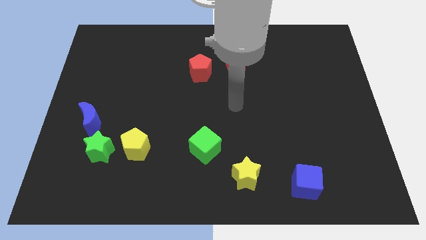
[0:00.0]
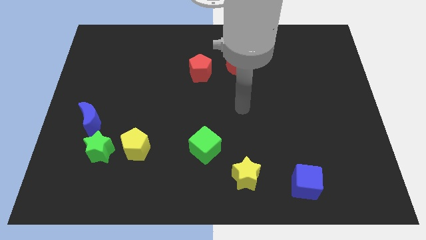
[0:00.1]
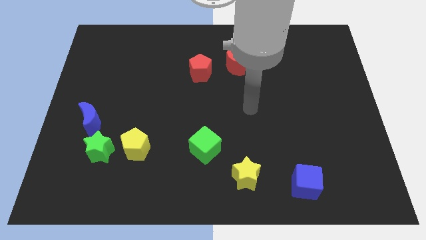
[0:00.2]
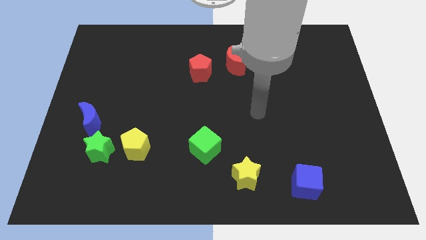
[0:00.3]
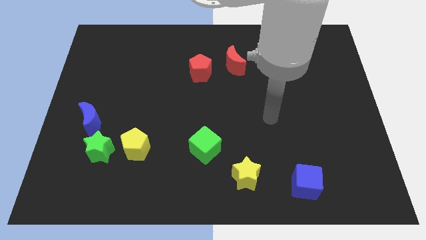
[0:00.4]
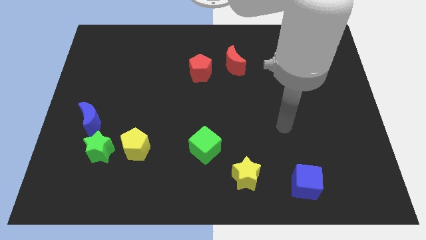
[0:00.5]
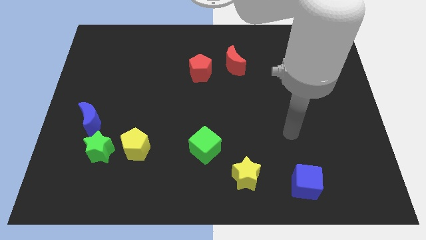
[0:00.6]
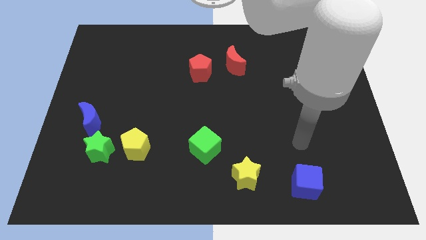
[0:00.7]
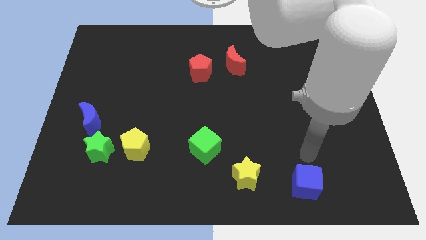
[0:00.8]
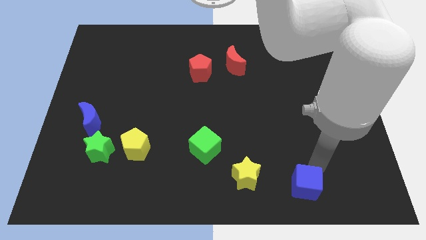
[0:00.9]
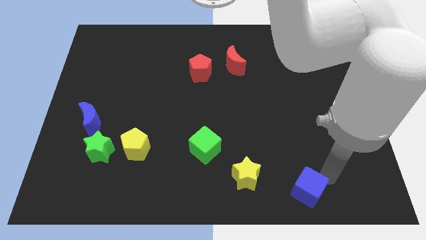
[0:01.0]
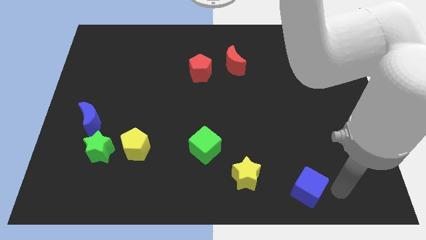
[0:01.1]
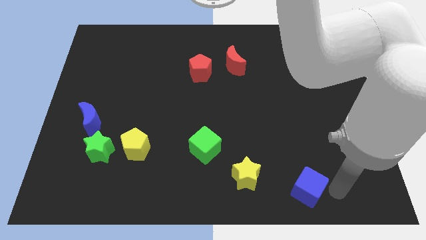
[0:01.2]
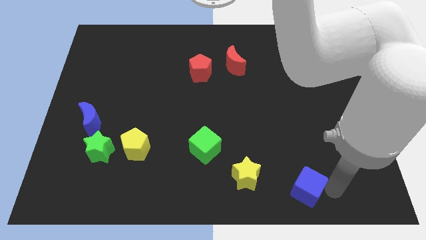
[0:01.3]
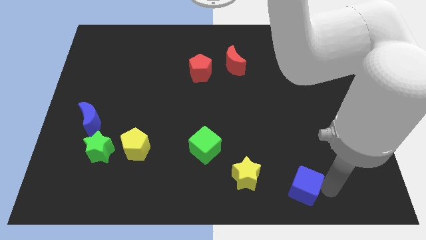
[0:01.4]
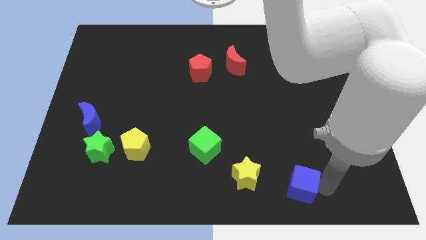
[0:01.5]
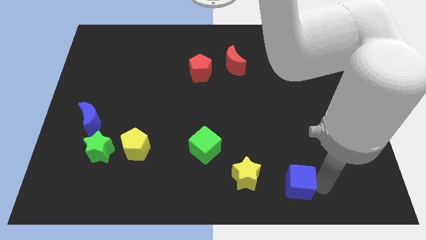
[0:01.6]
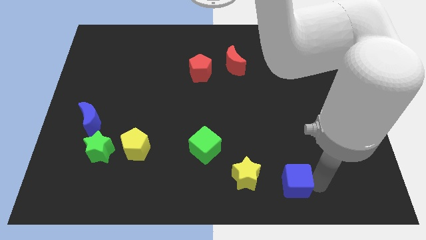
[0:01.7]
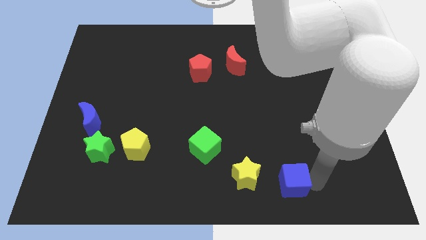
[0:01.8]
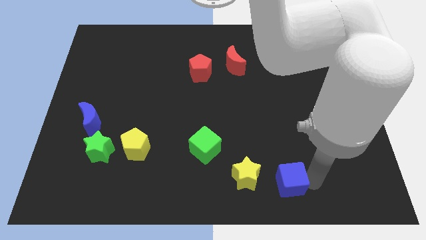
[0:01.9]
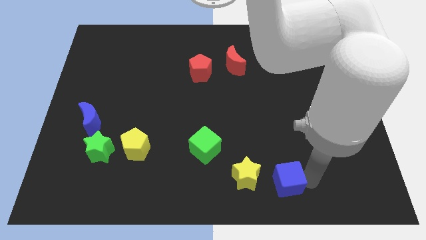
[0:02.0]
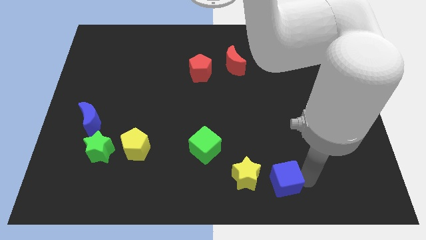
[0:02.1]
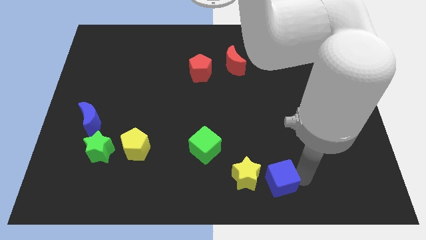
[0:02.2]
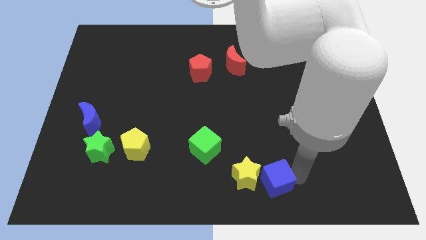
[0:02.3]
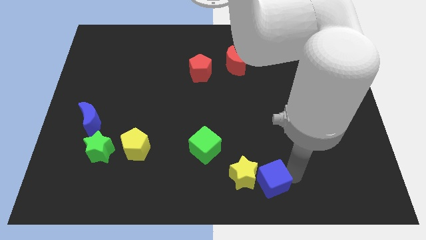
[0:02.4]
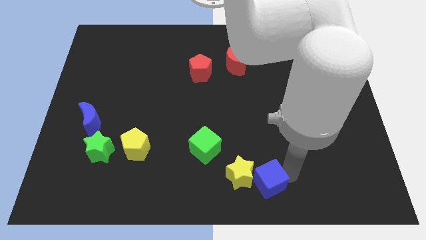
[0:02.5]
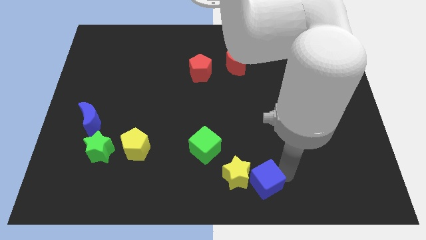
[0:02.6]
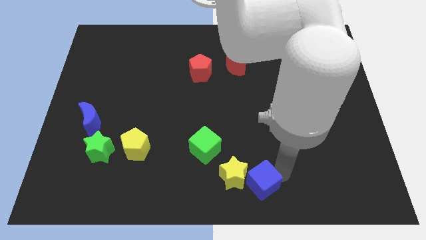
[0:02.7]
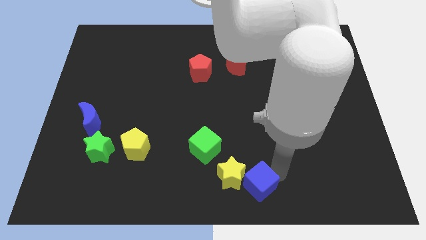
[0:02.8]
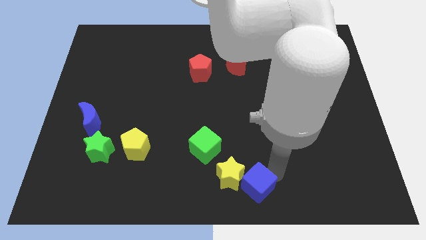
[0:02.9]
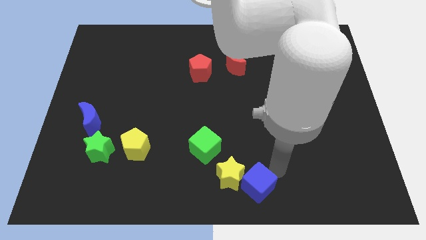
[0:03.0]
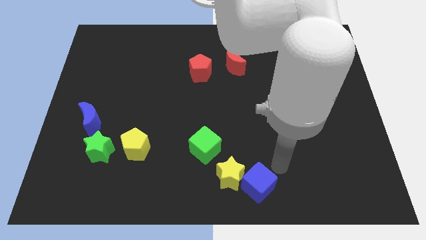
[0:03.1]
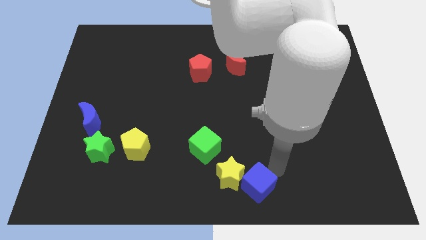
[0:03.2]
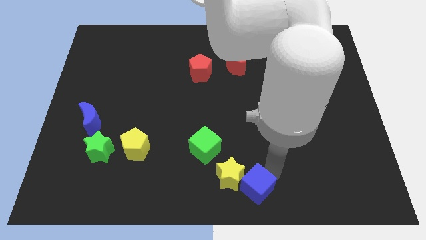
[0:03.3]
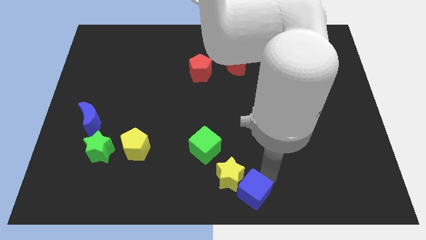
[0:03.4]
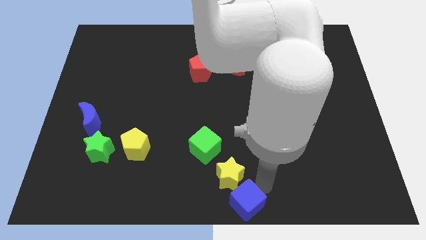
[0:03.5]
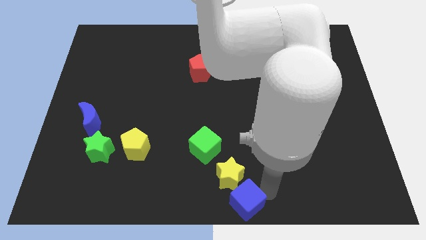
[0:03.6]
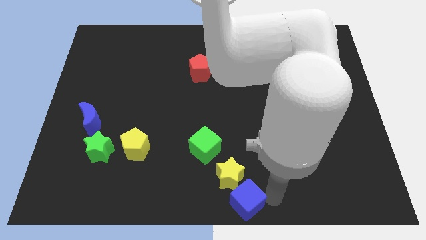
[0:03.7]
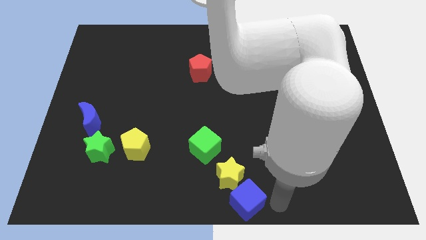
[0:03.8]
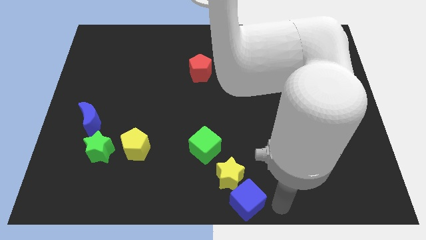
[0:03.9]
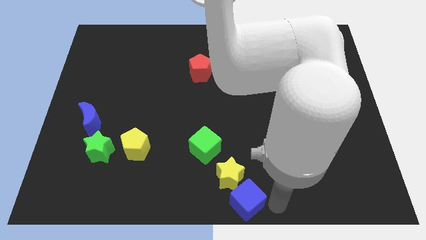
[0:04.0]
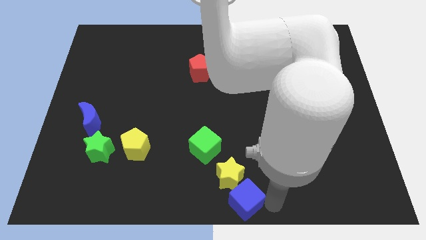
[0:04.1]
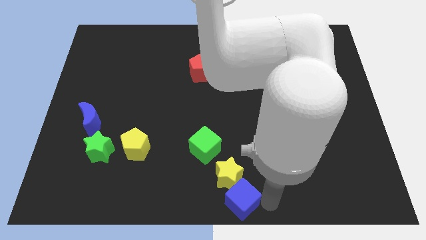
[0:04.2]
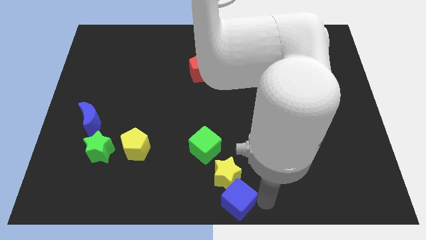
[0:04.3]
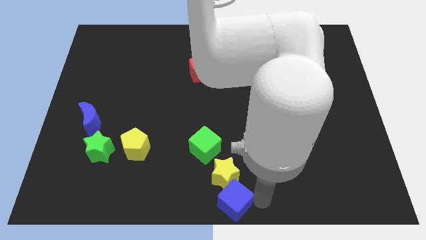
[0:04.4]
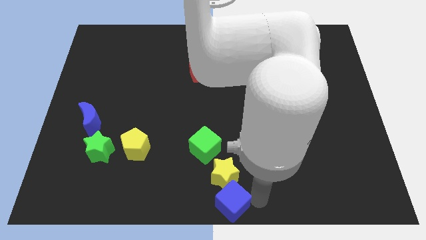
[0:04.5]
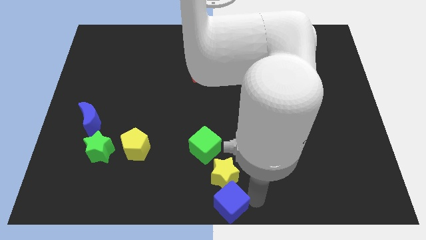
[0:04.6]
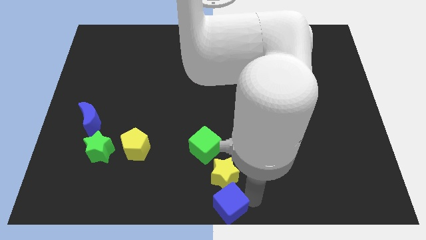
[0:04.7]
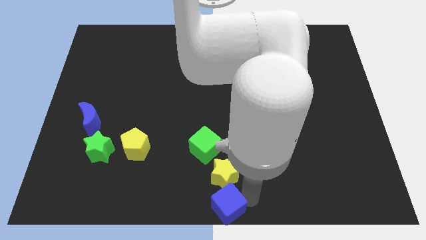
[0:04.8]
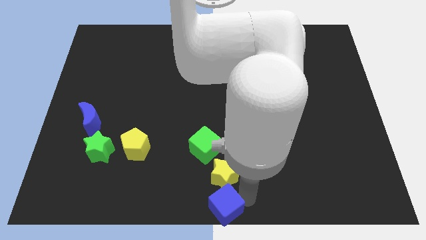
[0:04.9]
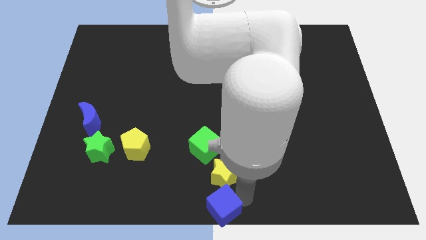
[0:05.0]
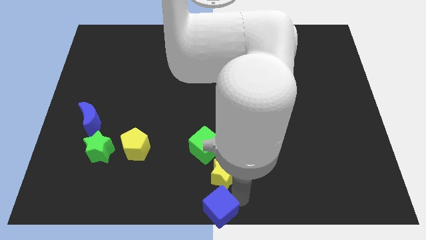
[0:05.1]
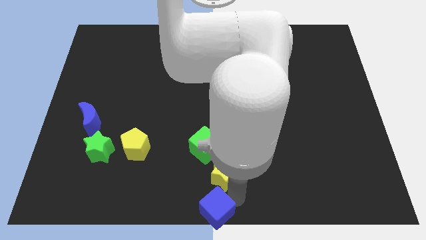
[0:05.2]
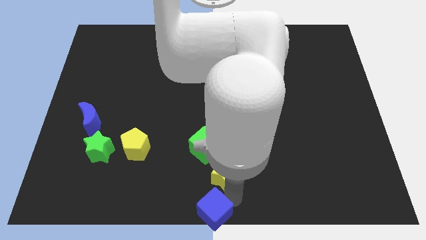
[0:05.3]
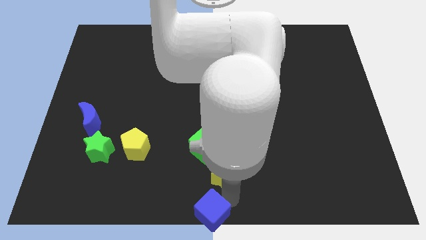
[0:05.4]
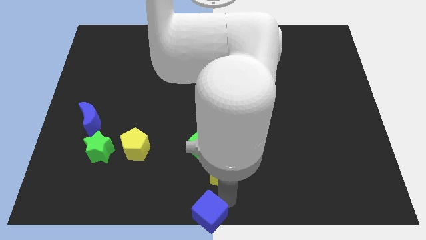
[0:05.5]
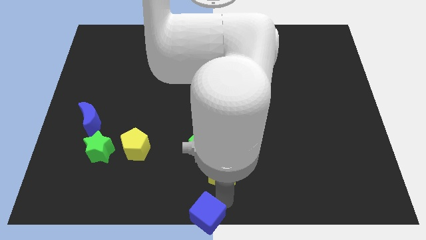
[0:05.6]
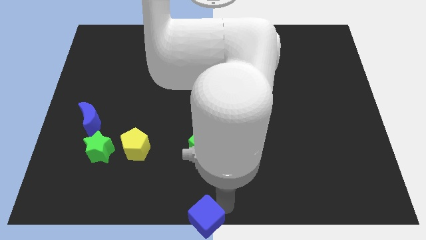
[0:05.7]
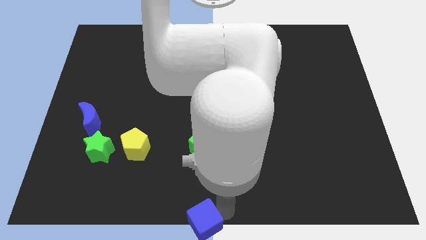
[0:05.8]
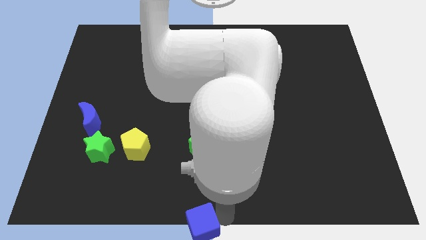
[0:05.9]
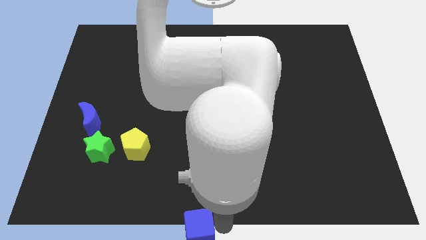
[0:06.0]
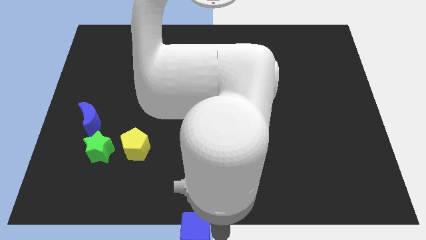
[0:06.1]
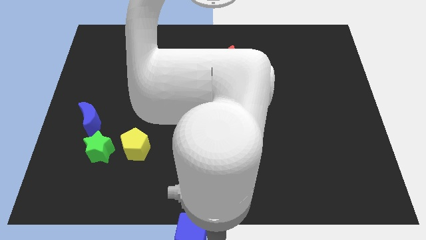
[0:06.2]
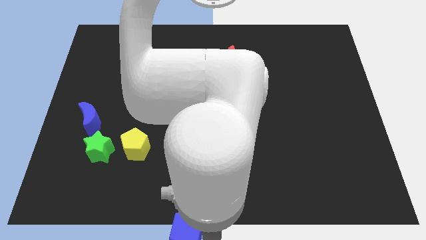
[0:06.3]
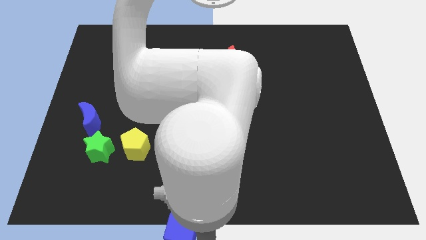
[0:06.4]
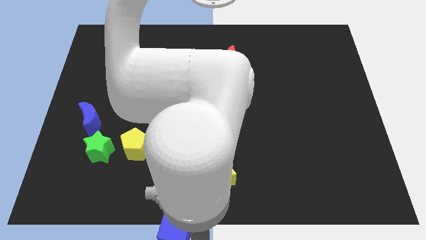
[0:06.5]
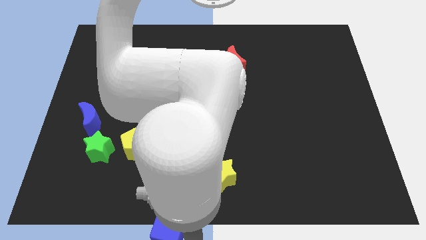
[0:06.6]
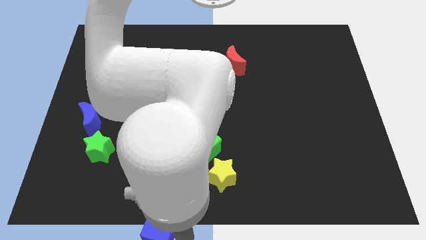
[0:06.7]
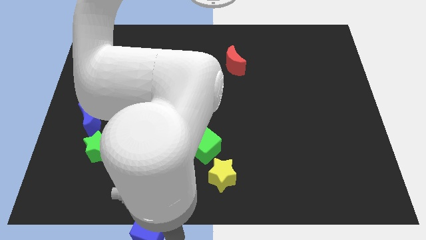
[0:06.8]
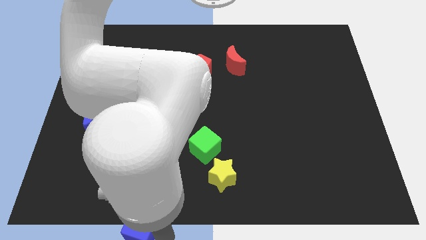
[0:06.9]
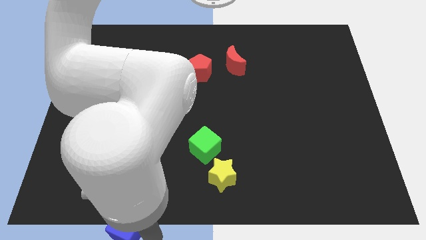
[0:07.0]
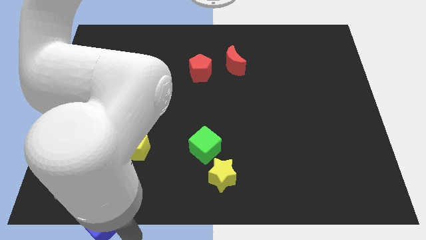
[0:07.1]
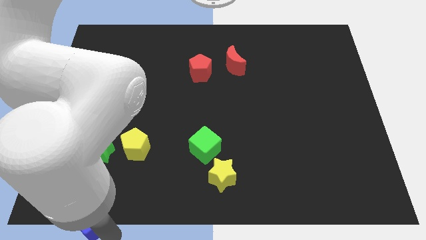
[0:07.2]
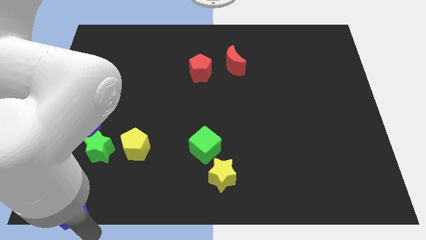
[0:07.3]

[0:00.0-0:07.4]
move the blue cube to the lower left corner
